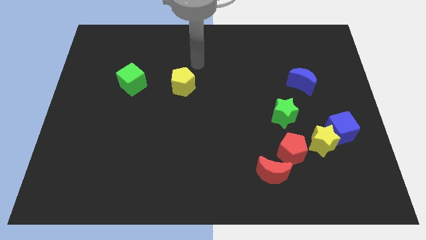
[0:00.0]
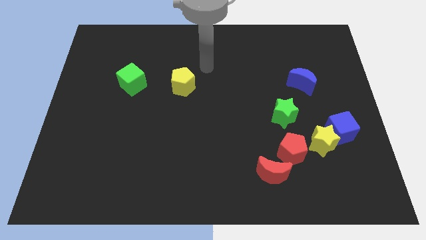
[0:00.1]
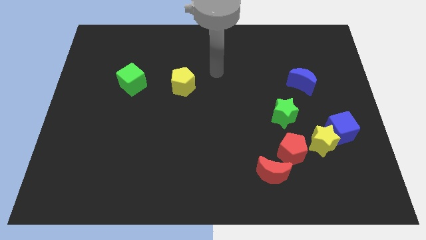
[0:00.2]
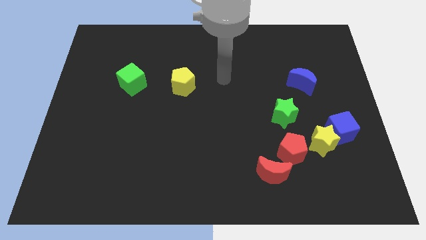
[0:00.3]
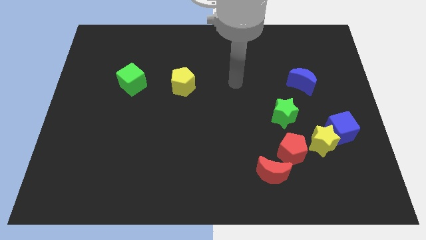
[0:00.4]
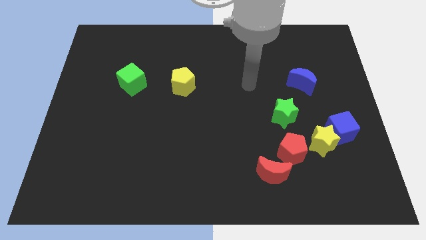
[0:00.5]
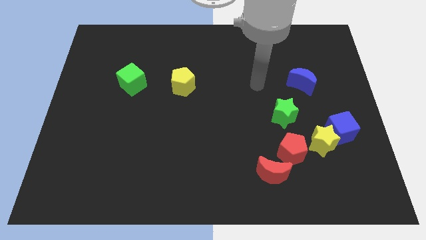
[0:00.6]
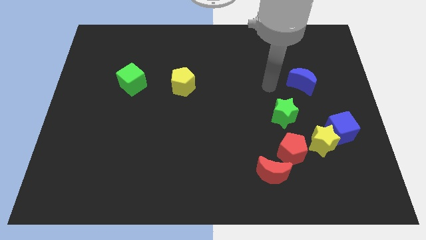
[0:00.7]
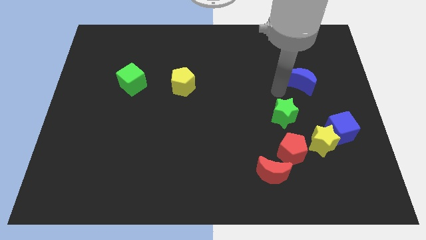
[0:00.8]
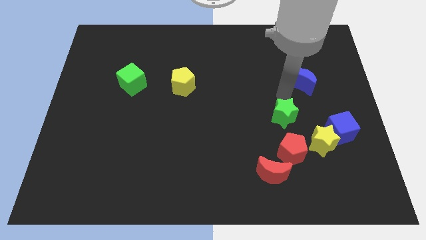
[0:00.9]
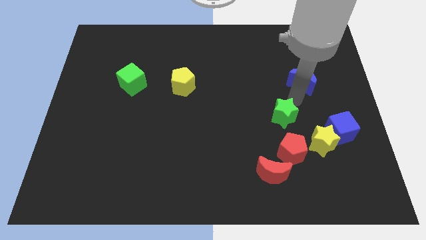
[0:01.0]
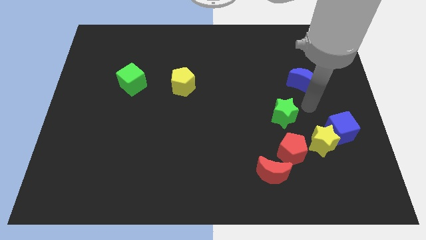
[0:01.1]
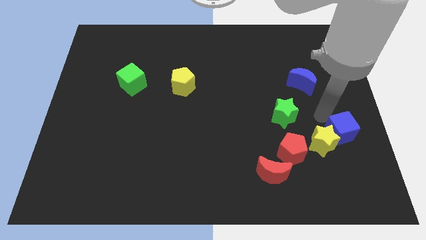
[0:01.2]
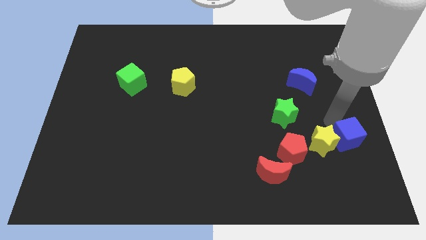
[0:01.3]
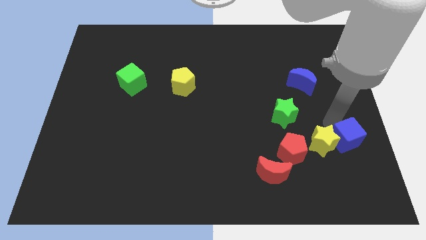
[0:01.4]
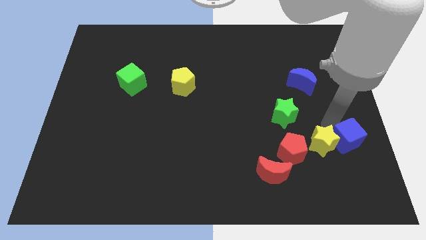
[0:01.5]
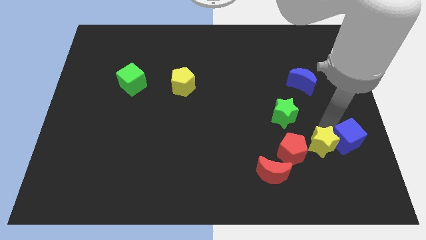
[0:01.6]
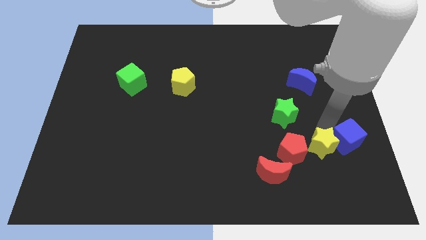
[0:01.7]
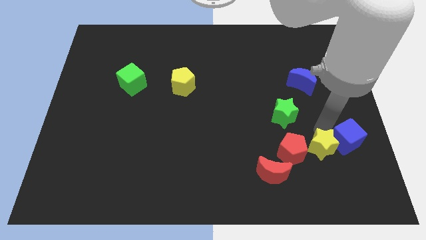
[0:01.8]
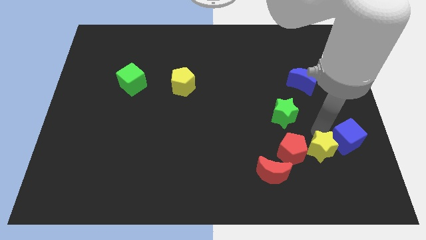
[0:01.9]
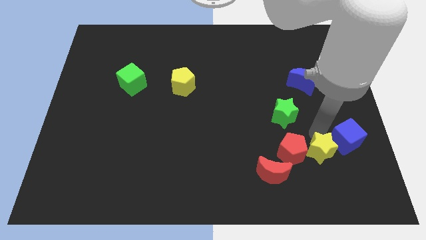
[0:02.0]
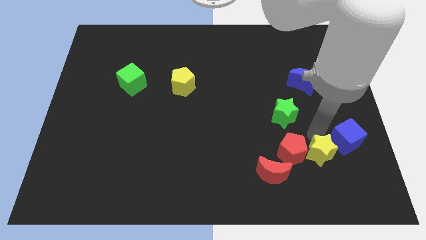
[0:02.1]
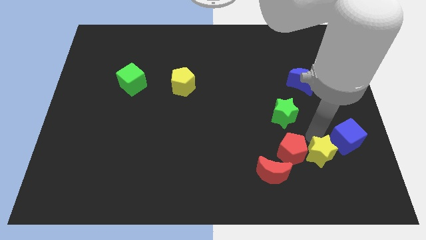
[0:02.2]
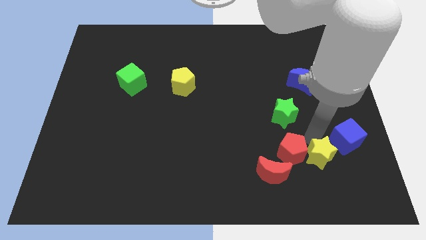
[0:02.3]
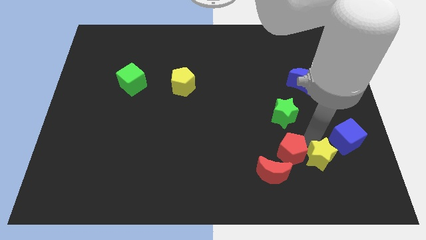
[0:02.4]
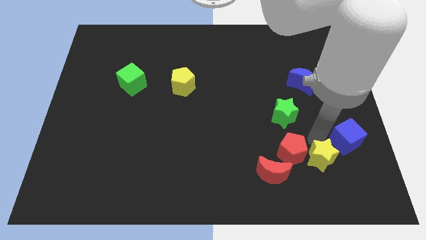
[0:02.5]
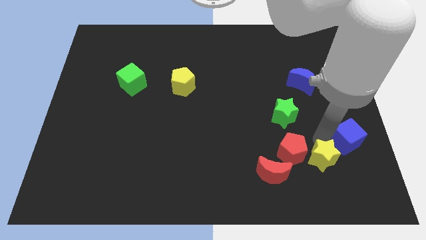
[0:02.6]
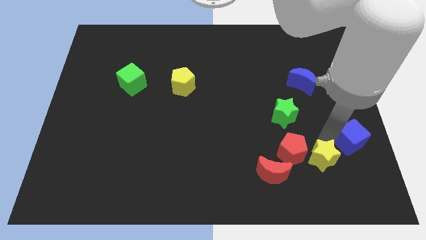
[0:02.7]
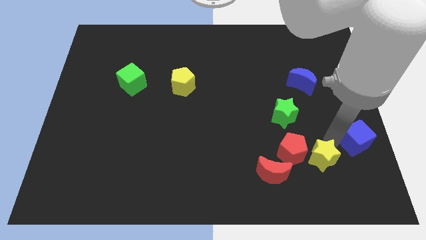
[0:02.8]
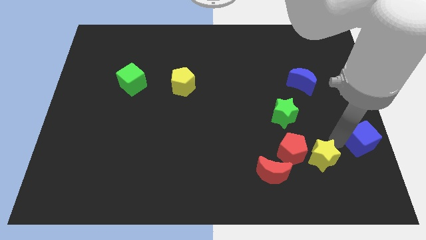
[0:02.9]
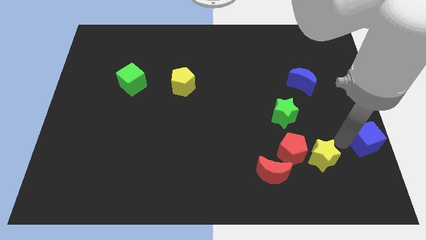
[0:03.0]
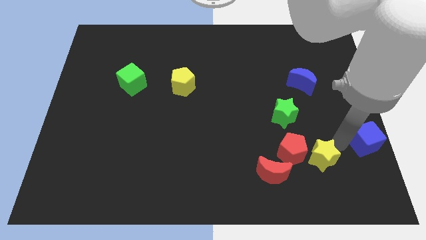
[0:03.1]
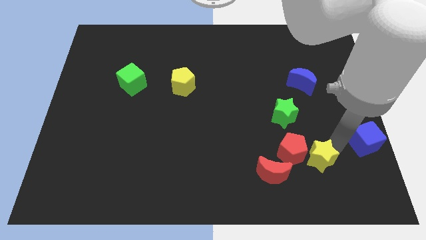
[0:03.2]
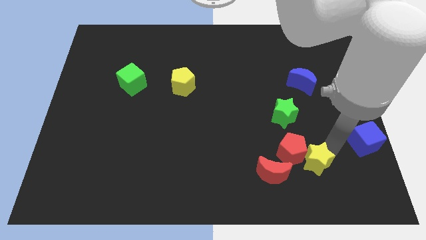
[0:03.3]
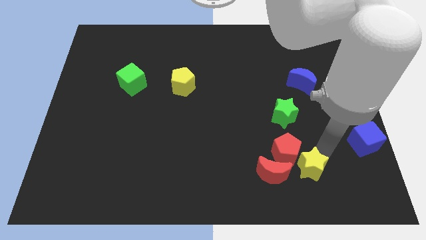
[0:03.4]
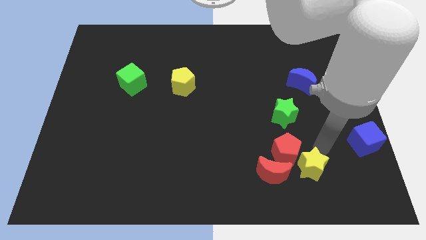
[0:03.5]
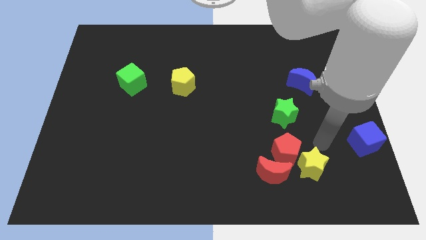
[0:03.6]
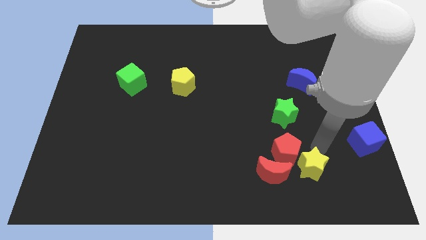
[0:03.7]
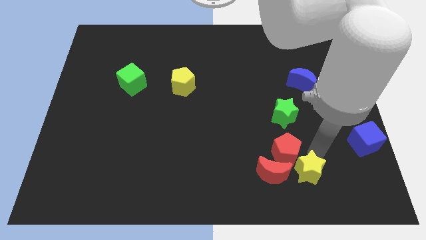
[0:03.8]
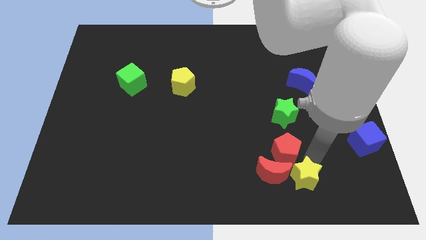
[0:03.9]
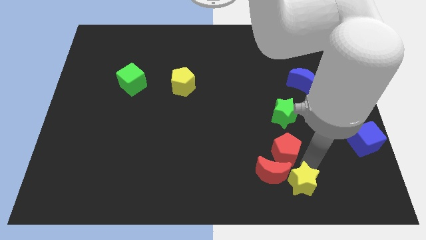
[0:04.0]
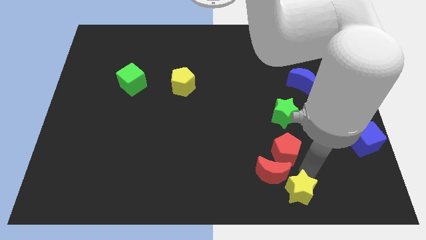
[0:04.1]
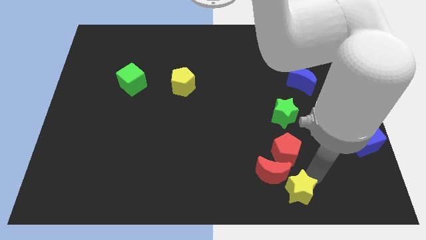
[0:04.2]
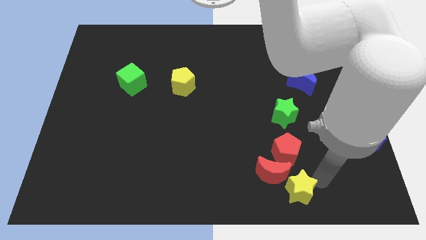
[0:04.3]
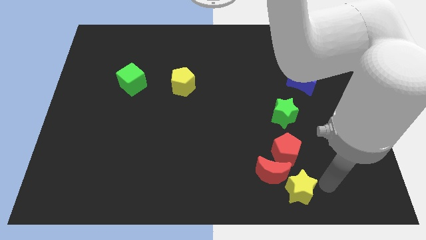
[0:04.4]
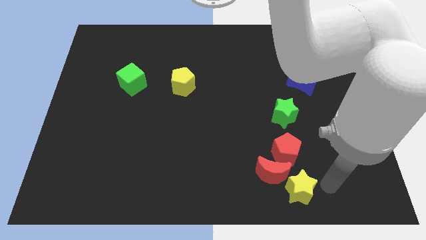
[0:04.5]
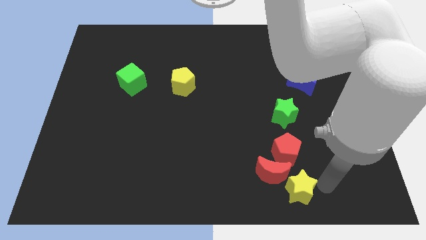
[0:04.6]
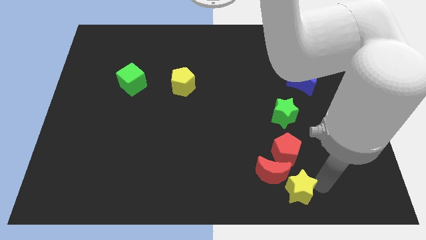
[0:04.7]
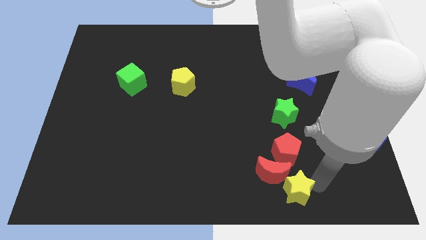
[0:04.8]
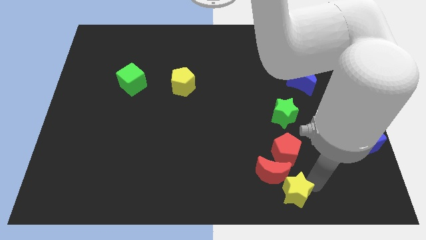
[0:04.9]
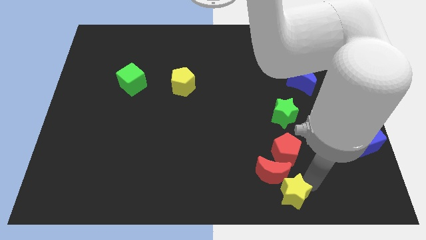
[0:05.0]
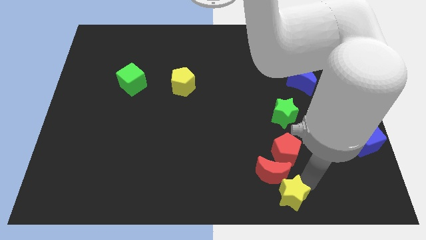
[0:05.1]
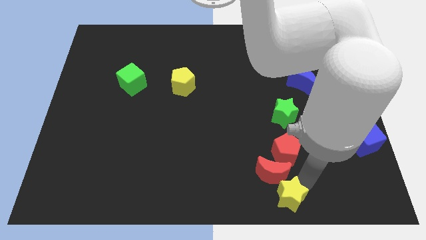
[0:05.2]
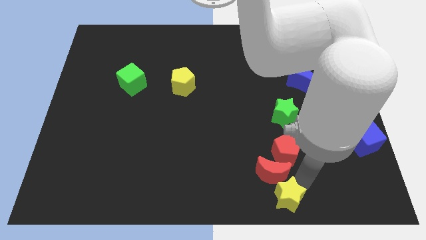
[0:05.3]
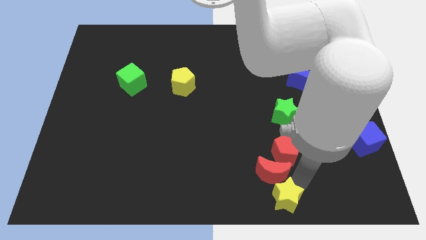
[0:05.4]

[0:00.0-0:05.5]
slide the yellow star to the bottom side

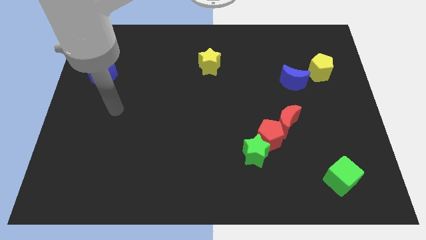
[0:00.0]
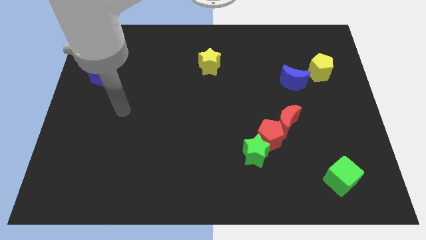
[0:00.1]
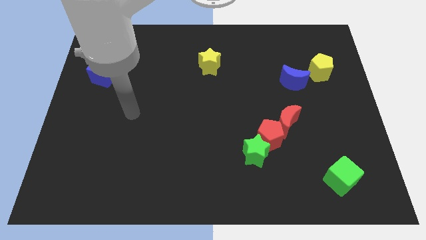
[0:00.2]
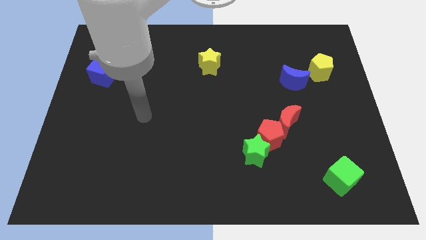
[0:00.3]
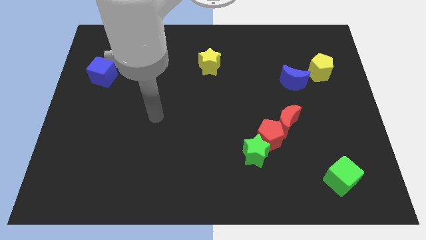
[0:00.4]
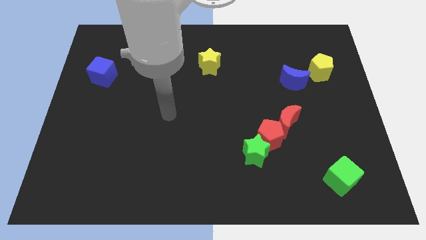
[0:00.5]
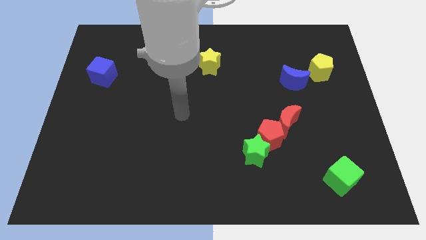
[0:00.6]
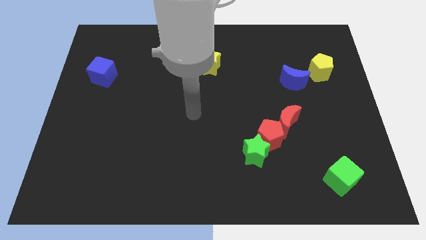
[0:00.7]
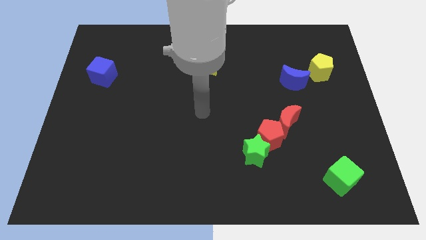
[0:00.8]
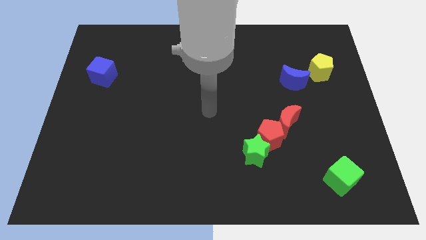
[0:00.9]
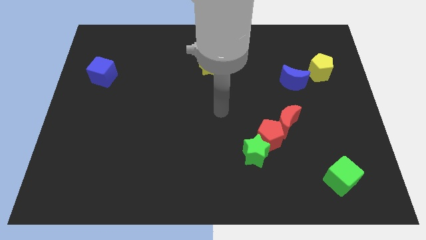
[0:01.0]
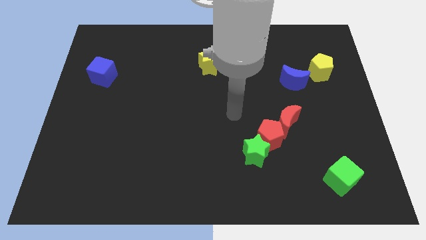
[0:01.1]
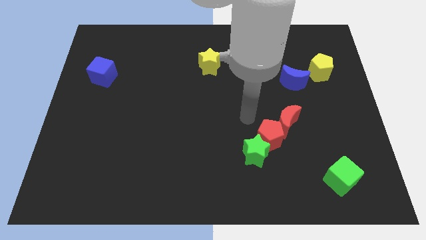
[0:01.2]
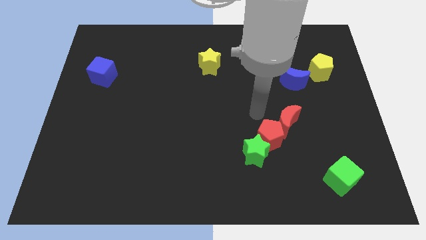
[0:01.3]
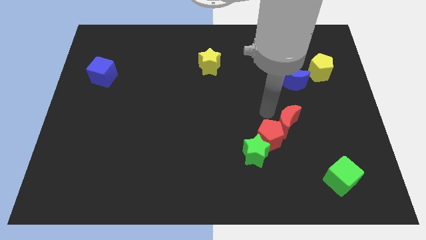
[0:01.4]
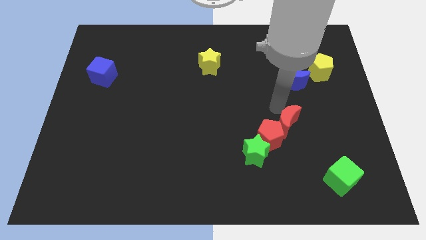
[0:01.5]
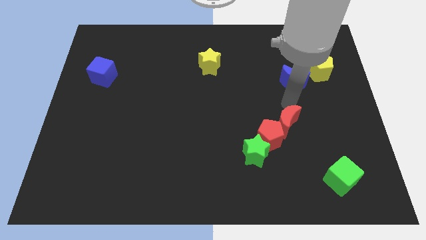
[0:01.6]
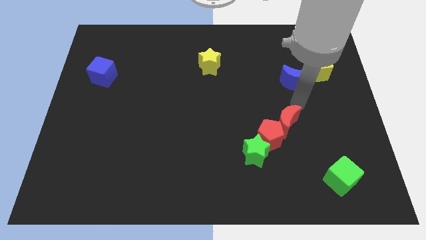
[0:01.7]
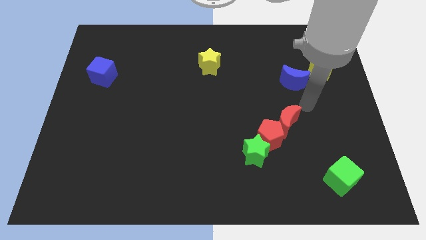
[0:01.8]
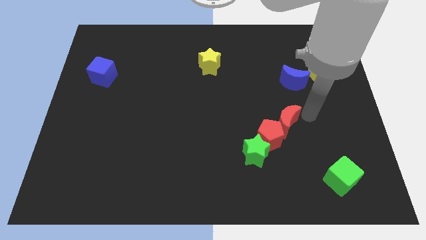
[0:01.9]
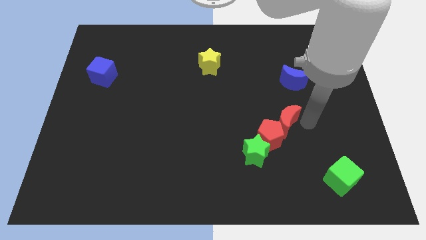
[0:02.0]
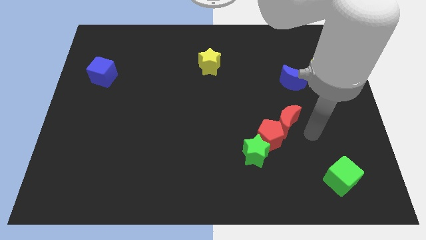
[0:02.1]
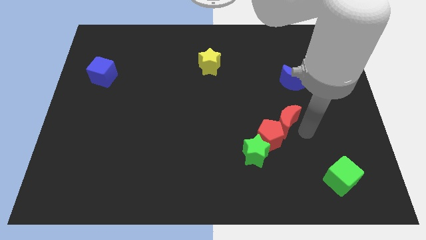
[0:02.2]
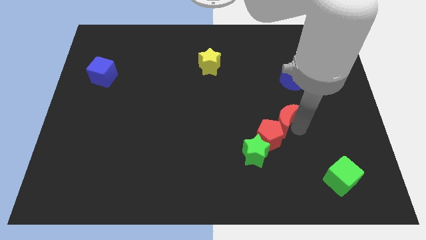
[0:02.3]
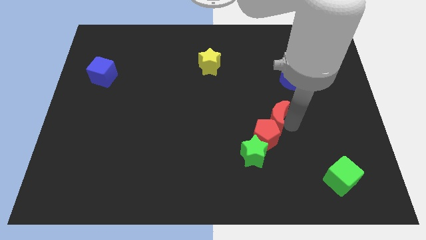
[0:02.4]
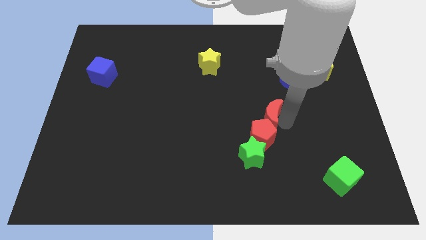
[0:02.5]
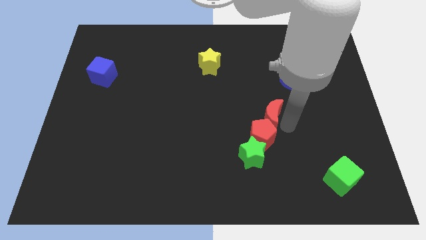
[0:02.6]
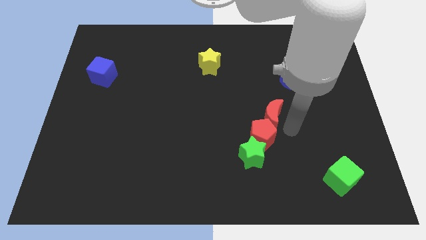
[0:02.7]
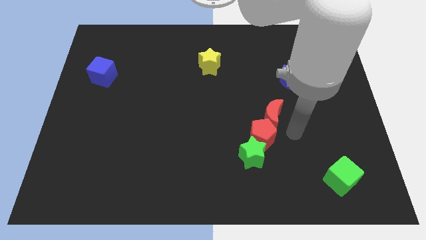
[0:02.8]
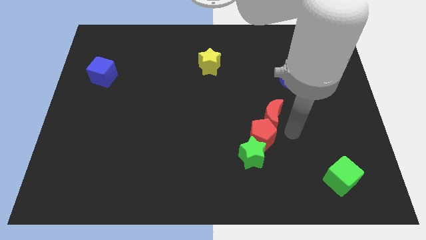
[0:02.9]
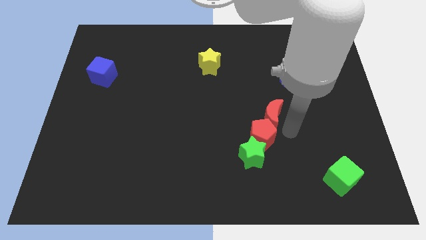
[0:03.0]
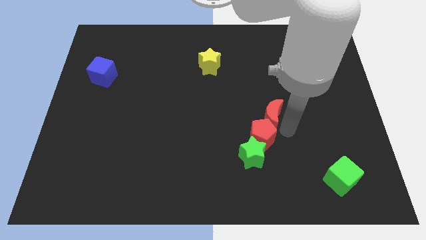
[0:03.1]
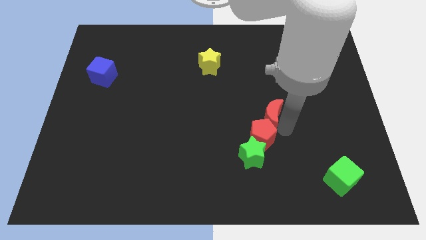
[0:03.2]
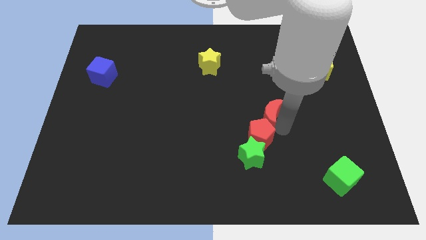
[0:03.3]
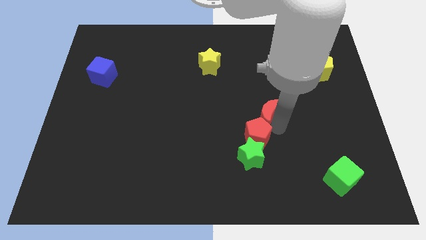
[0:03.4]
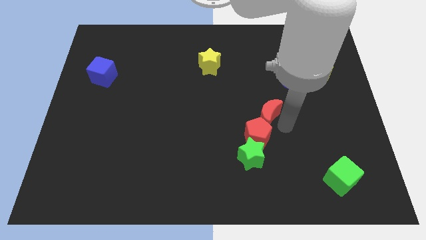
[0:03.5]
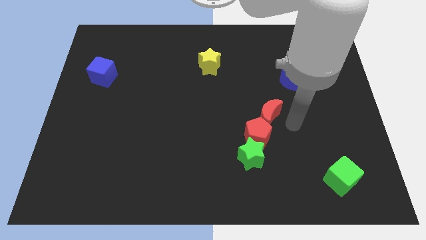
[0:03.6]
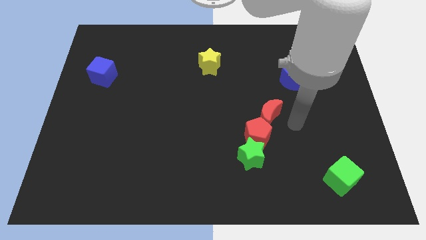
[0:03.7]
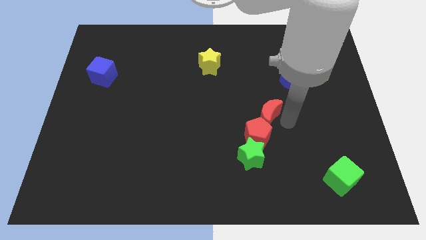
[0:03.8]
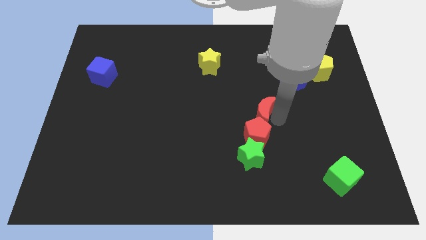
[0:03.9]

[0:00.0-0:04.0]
slide the red moon to the center
